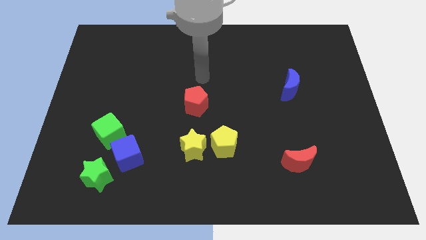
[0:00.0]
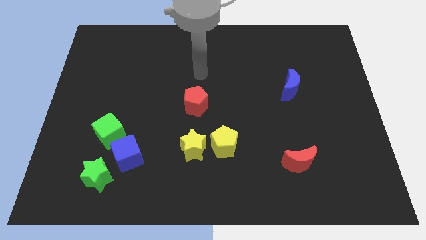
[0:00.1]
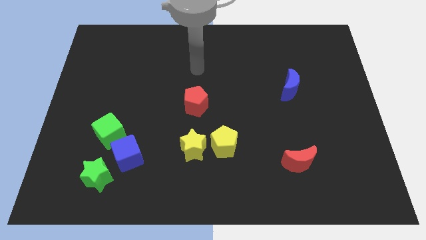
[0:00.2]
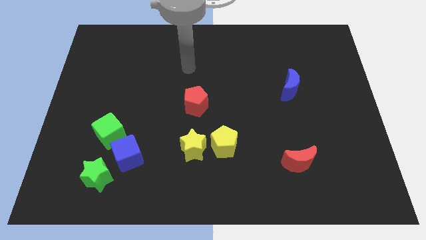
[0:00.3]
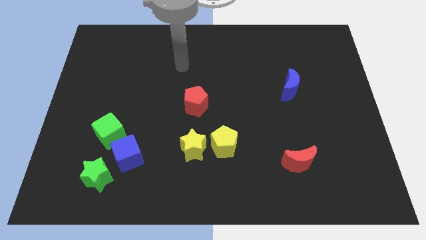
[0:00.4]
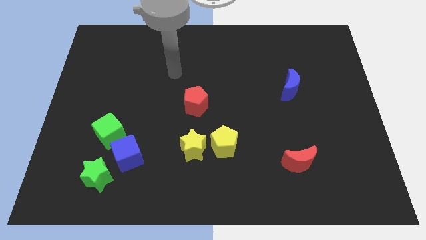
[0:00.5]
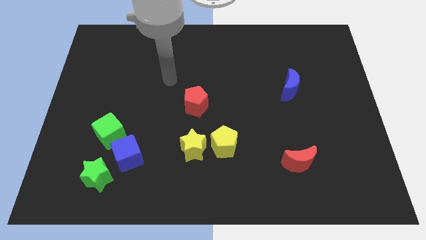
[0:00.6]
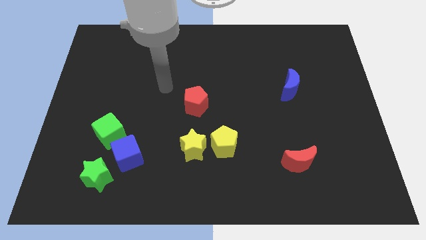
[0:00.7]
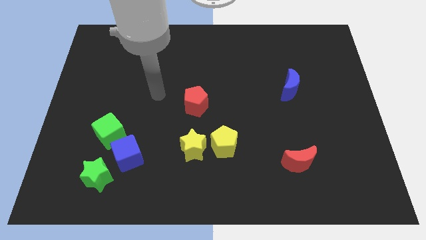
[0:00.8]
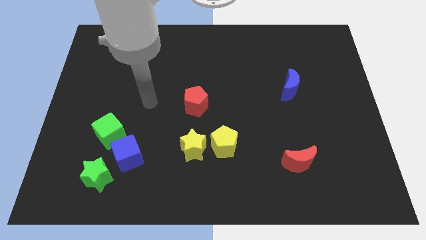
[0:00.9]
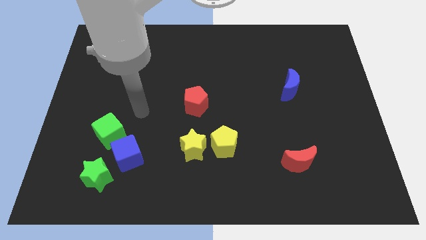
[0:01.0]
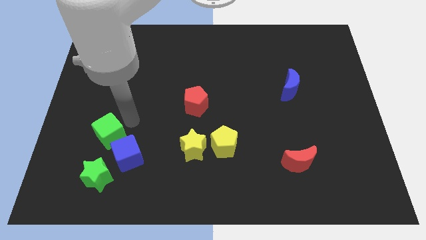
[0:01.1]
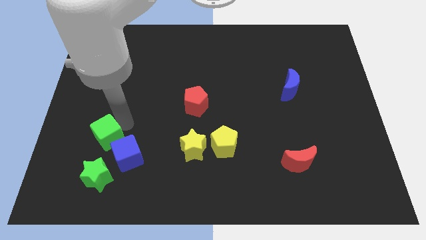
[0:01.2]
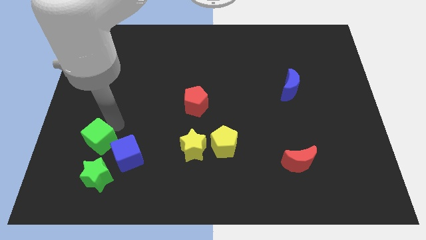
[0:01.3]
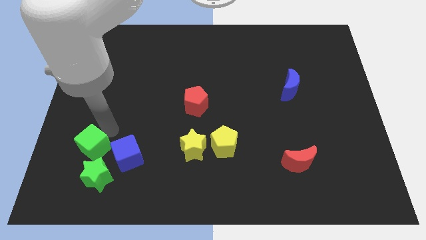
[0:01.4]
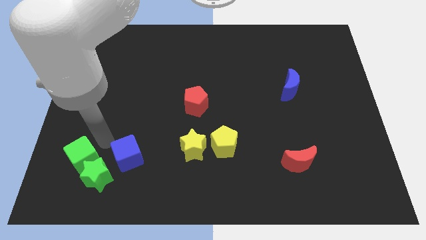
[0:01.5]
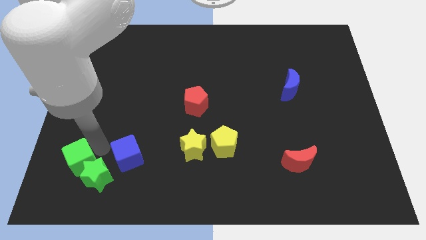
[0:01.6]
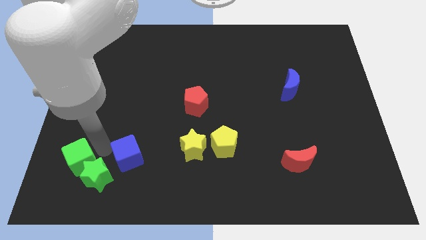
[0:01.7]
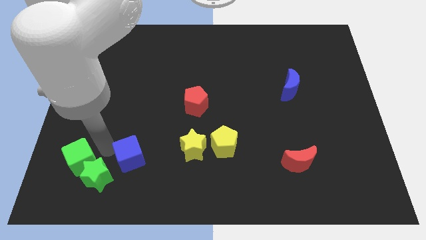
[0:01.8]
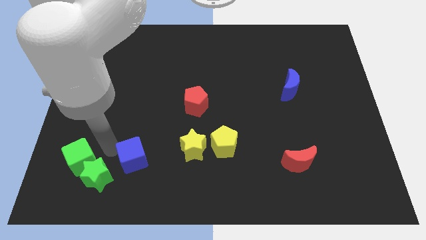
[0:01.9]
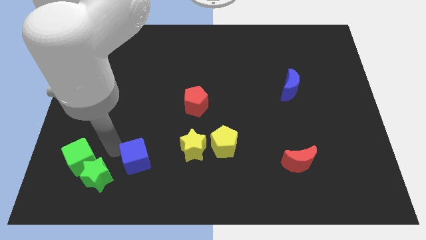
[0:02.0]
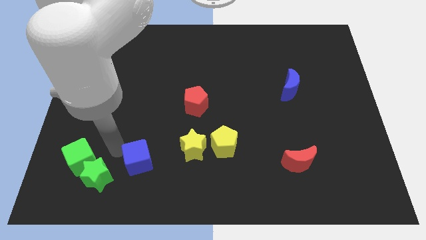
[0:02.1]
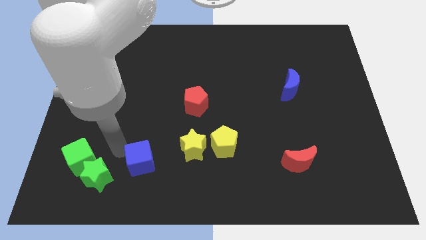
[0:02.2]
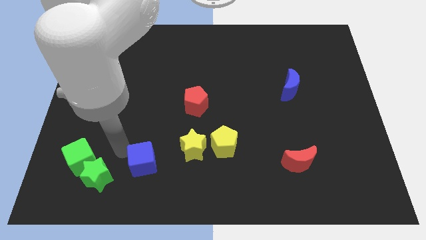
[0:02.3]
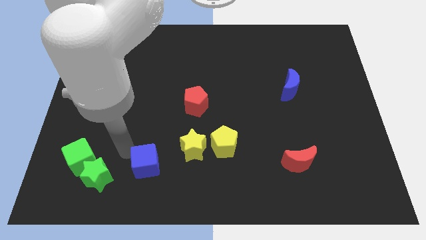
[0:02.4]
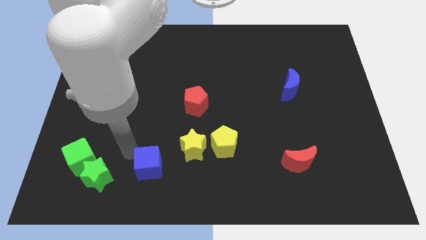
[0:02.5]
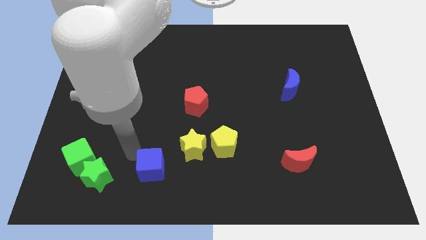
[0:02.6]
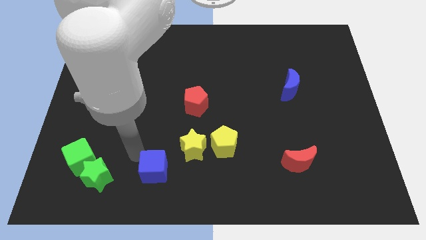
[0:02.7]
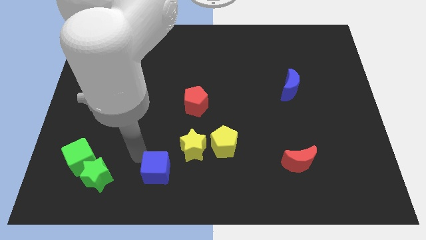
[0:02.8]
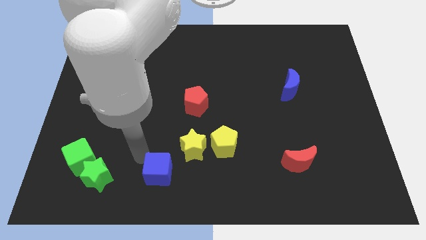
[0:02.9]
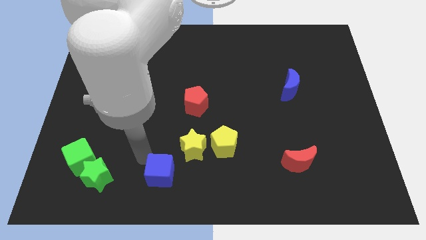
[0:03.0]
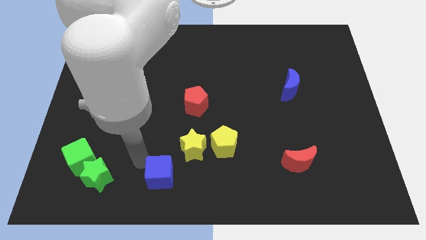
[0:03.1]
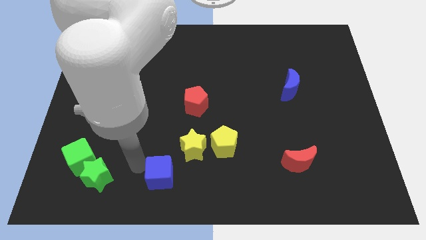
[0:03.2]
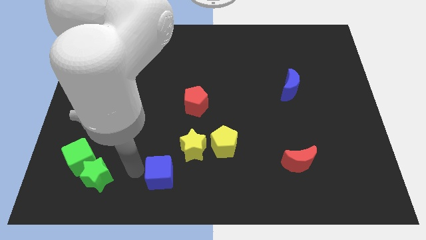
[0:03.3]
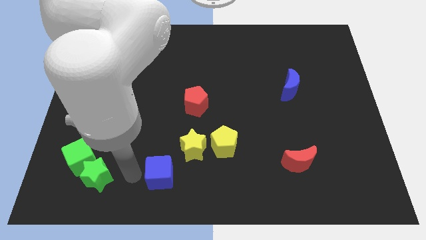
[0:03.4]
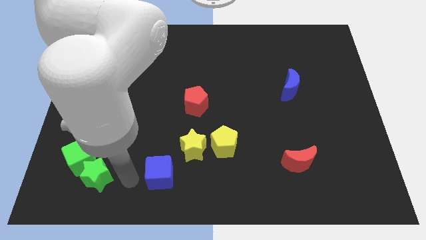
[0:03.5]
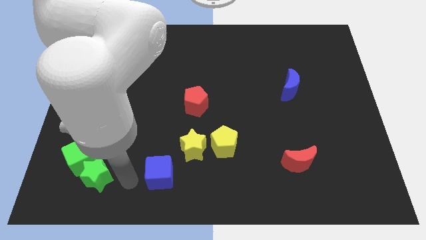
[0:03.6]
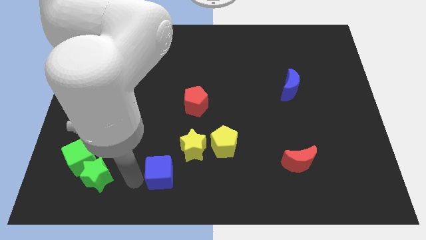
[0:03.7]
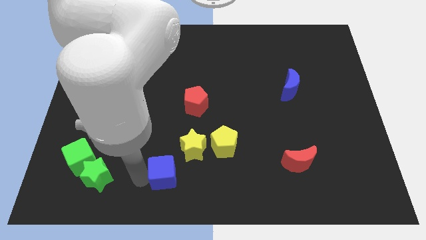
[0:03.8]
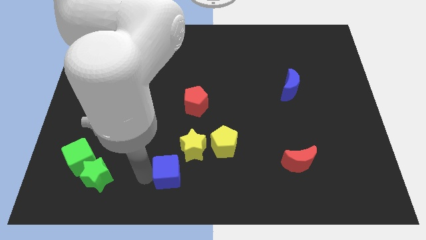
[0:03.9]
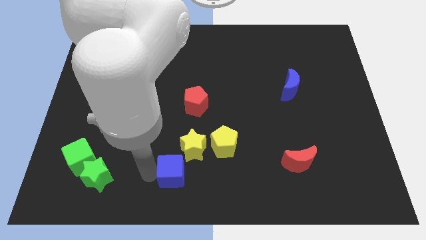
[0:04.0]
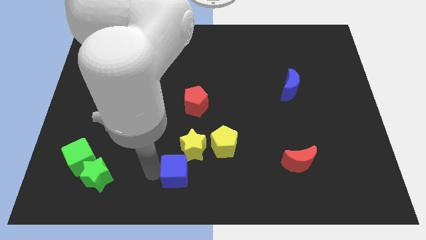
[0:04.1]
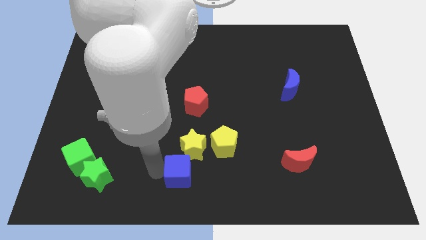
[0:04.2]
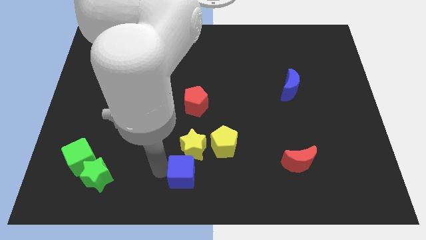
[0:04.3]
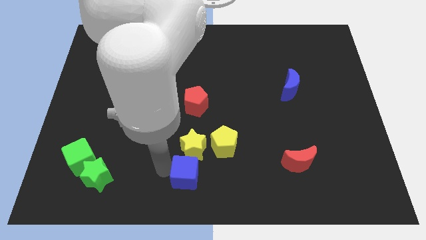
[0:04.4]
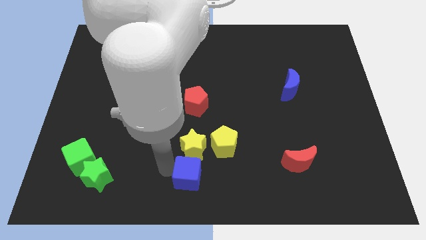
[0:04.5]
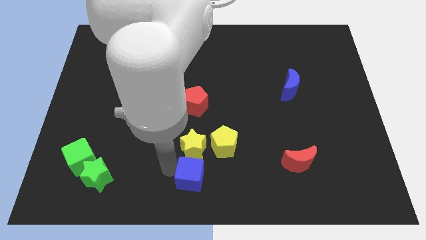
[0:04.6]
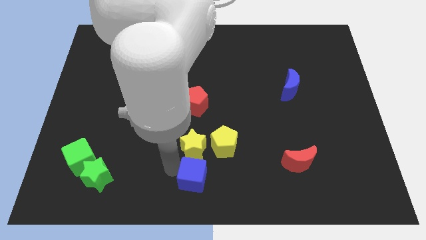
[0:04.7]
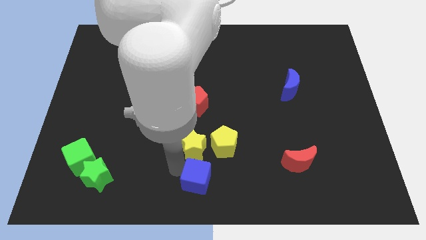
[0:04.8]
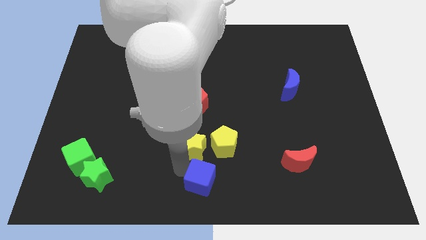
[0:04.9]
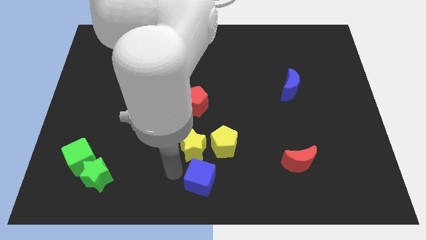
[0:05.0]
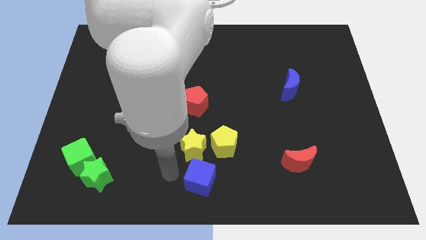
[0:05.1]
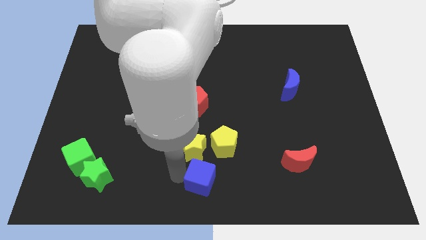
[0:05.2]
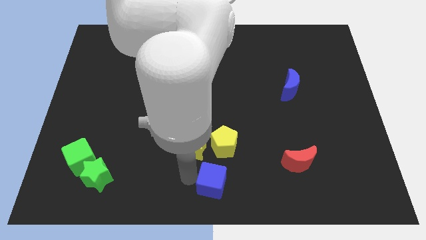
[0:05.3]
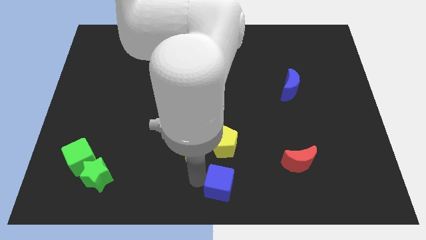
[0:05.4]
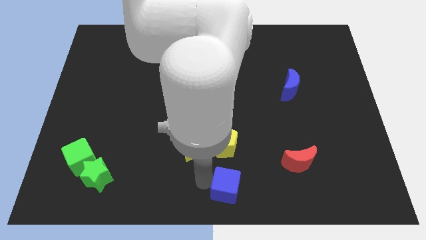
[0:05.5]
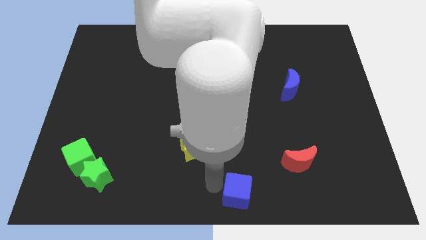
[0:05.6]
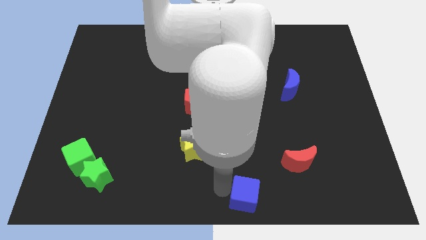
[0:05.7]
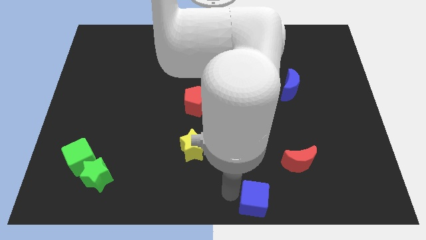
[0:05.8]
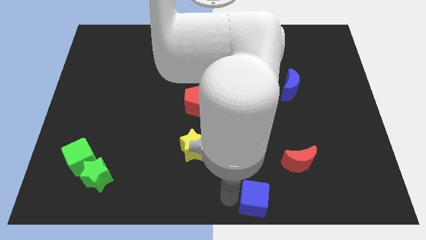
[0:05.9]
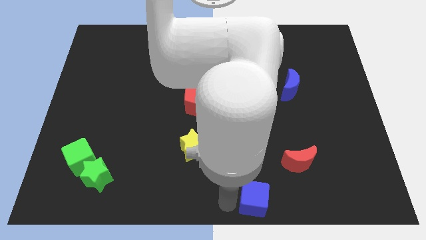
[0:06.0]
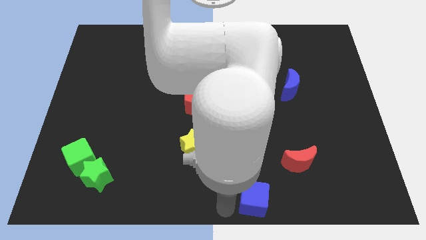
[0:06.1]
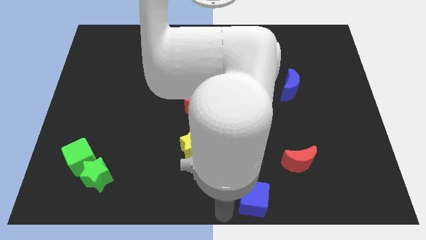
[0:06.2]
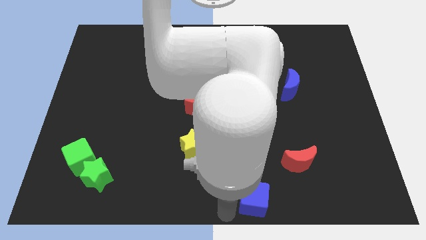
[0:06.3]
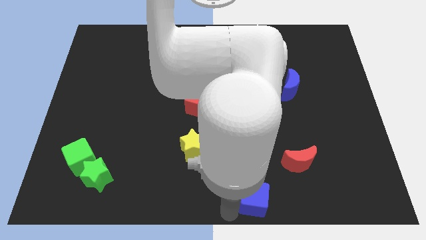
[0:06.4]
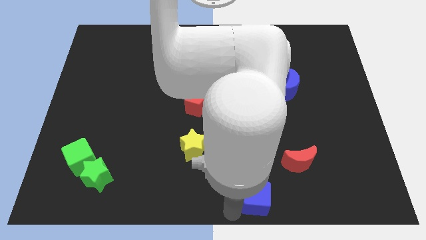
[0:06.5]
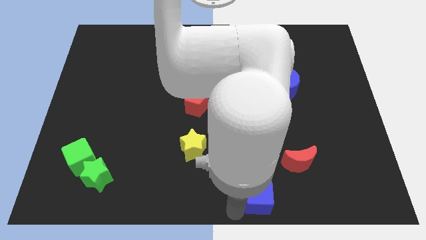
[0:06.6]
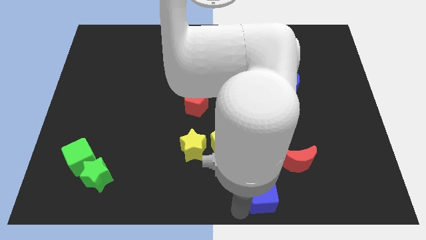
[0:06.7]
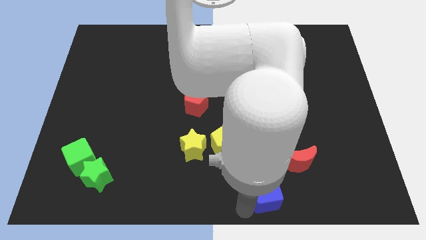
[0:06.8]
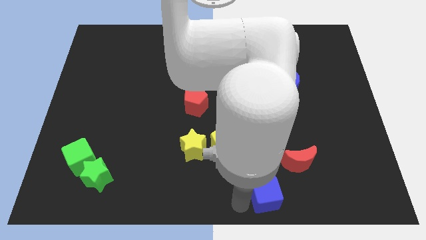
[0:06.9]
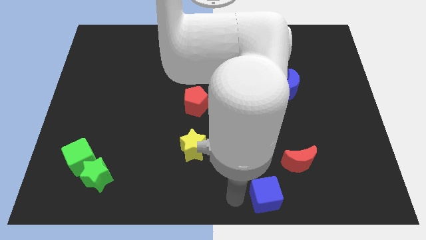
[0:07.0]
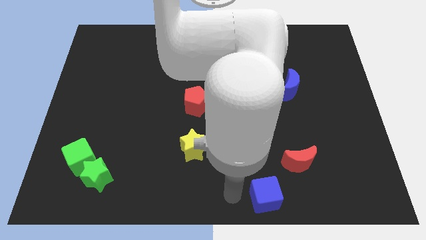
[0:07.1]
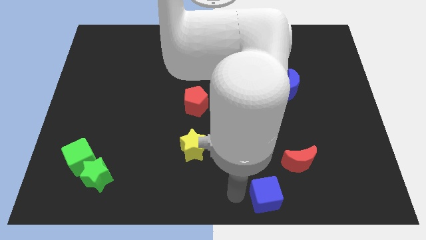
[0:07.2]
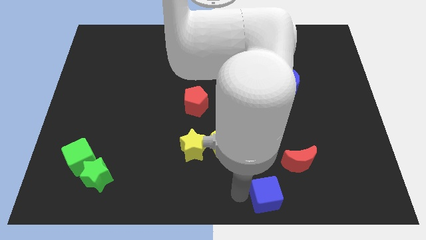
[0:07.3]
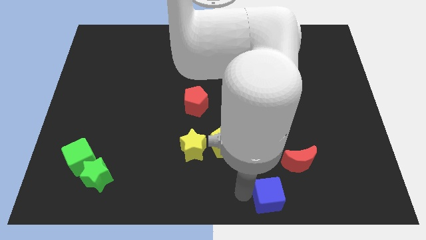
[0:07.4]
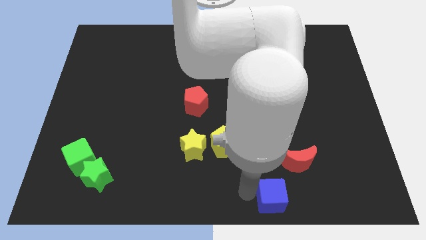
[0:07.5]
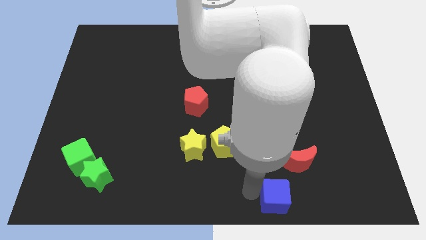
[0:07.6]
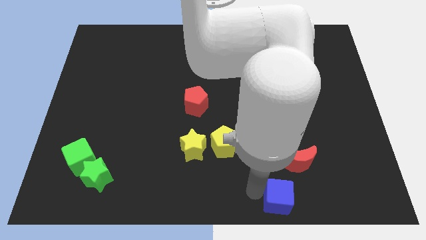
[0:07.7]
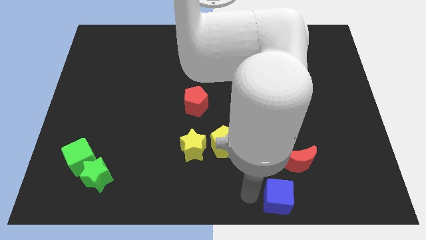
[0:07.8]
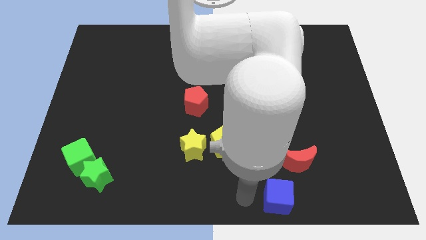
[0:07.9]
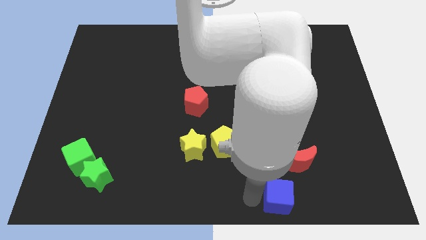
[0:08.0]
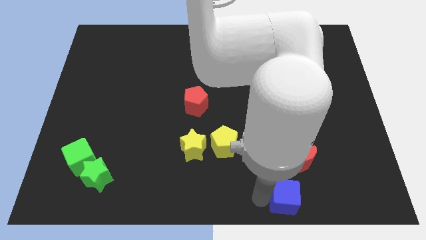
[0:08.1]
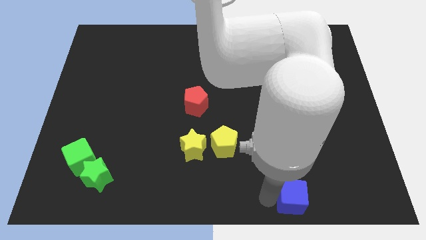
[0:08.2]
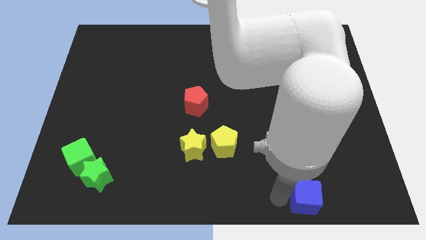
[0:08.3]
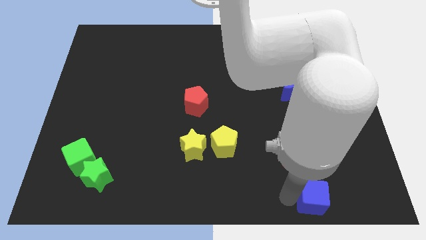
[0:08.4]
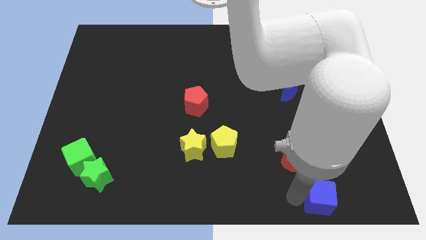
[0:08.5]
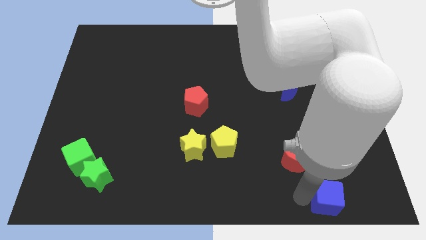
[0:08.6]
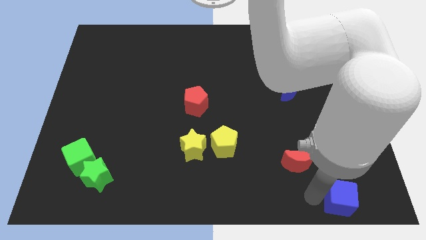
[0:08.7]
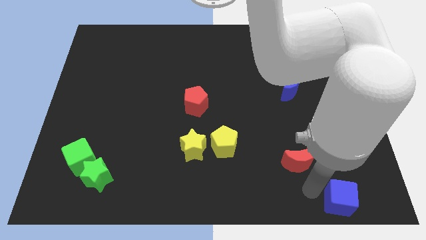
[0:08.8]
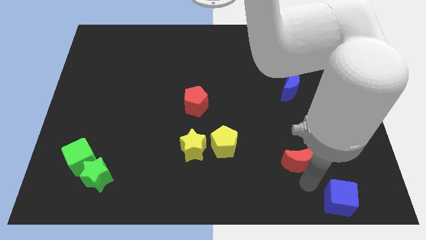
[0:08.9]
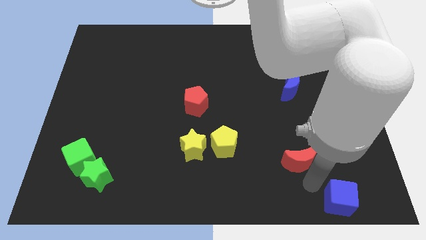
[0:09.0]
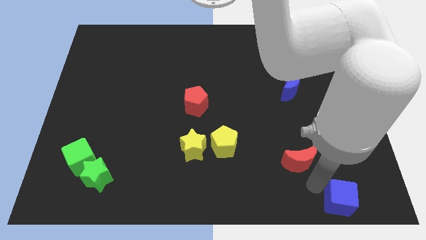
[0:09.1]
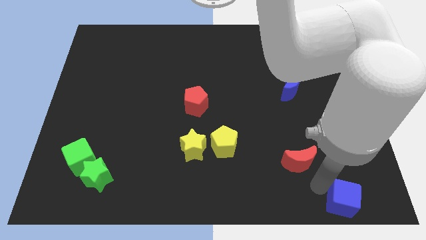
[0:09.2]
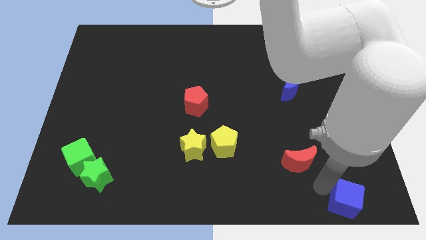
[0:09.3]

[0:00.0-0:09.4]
move the blue cube to the bottom right of the board
